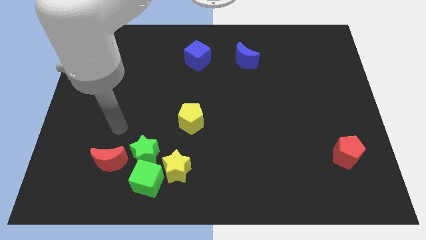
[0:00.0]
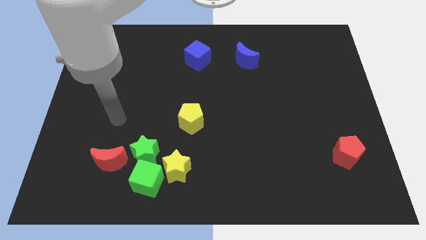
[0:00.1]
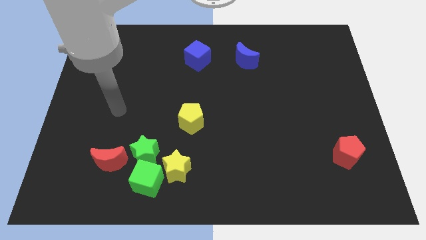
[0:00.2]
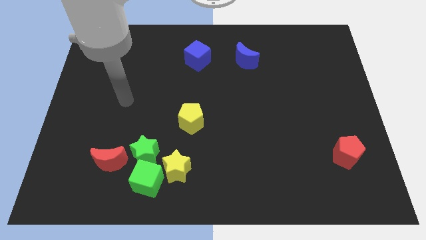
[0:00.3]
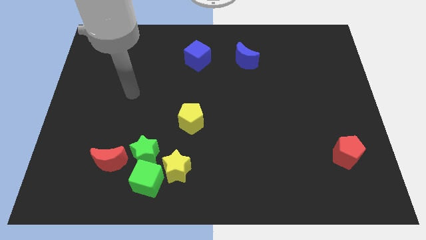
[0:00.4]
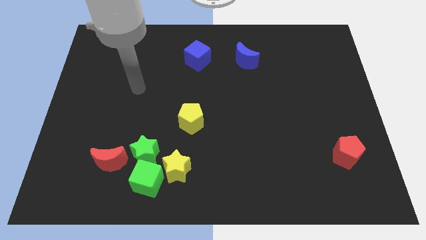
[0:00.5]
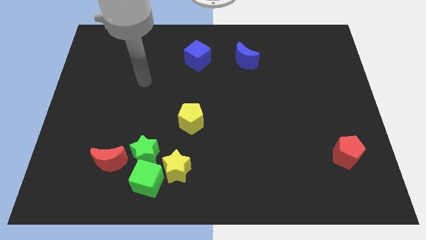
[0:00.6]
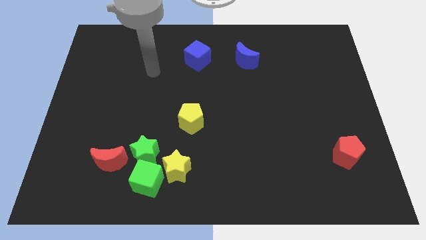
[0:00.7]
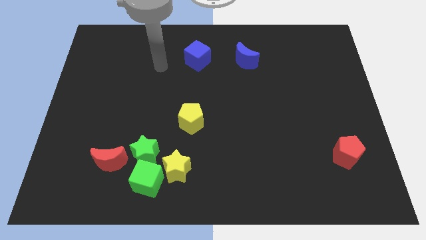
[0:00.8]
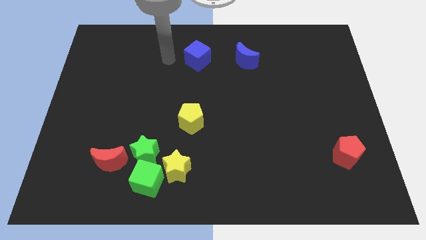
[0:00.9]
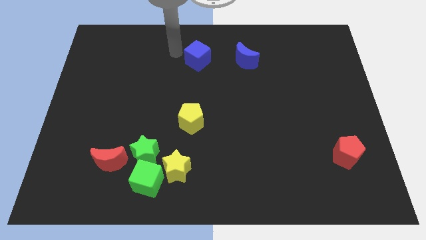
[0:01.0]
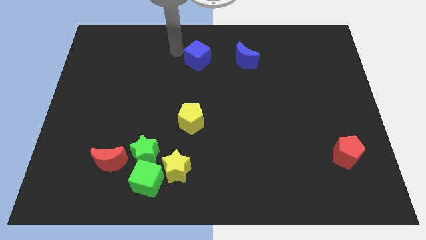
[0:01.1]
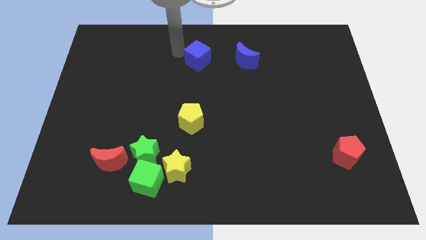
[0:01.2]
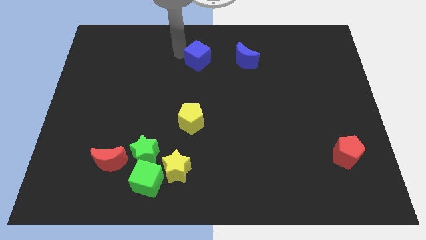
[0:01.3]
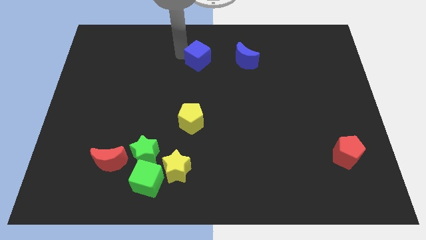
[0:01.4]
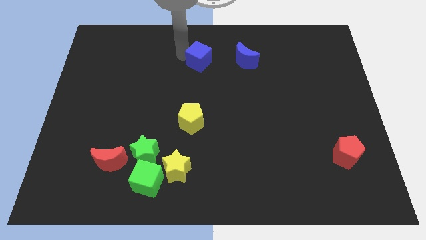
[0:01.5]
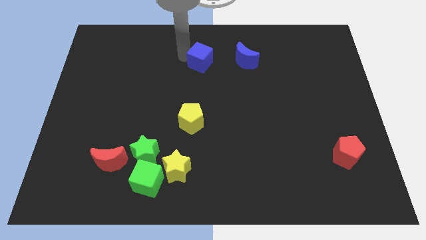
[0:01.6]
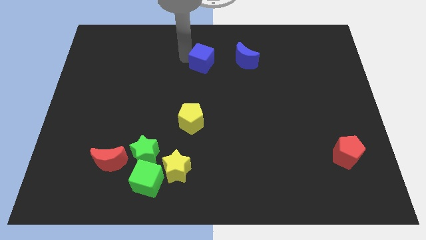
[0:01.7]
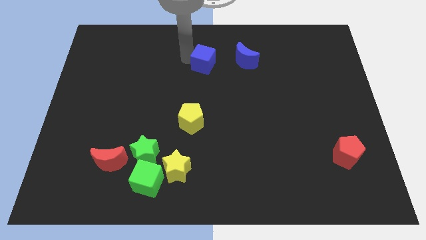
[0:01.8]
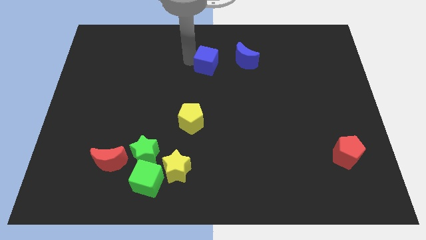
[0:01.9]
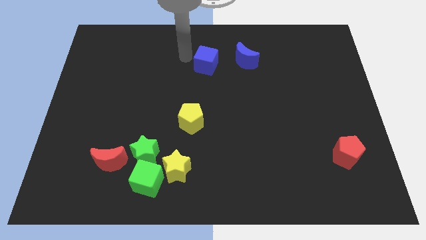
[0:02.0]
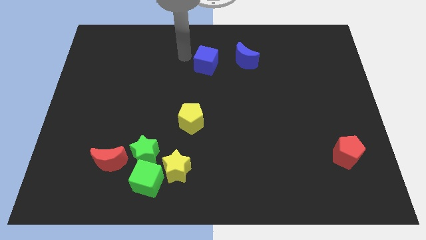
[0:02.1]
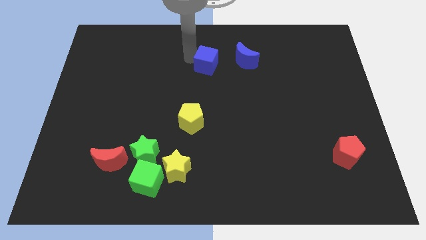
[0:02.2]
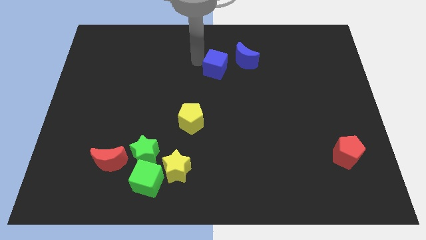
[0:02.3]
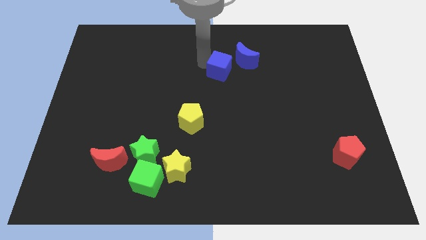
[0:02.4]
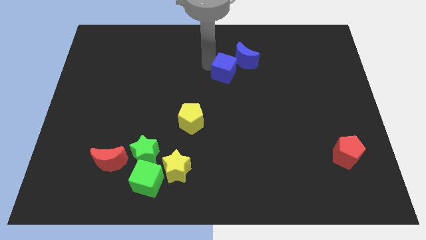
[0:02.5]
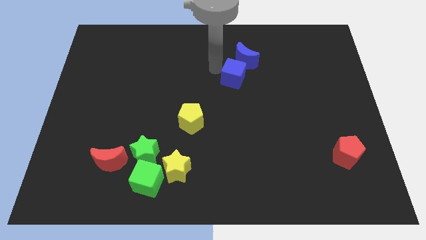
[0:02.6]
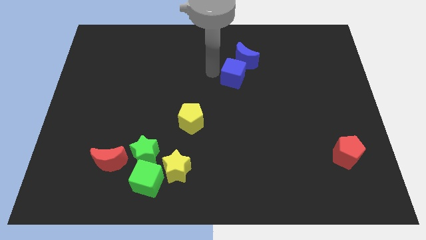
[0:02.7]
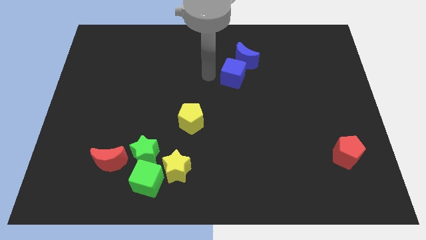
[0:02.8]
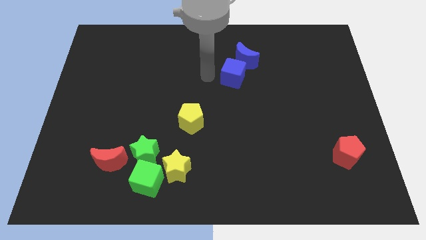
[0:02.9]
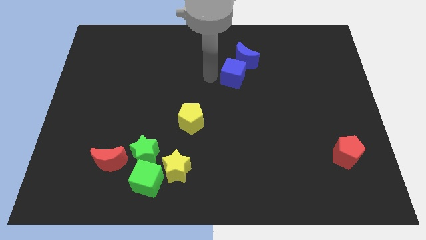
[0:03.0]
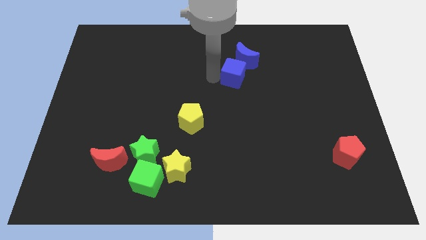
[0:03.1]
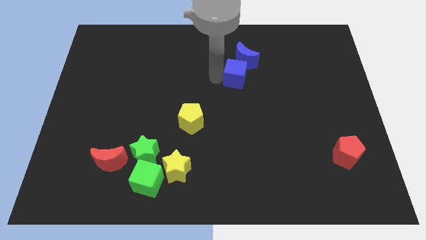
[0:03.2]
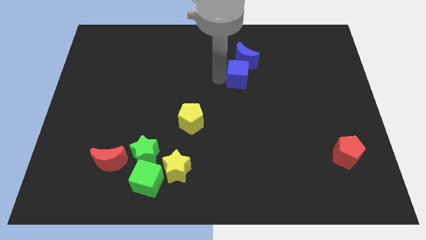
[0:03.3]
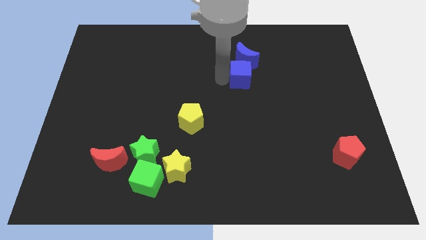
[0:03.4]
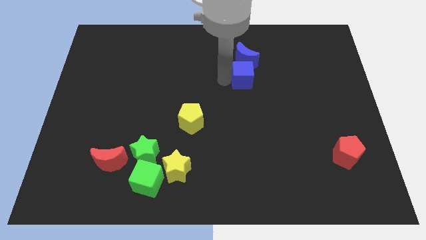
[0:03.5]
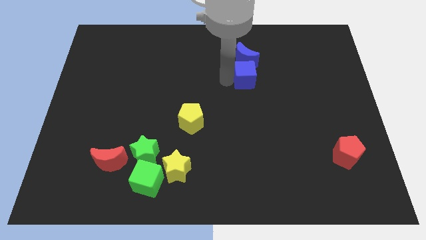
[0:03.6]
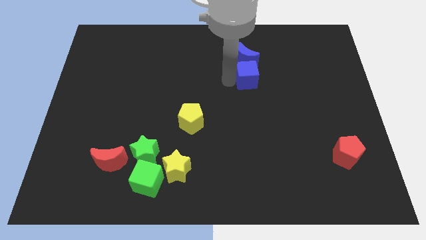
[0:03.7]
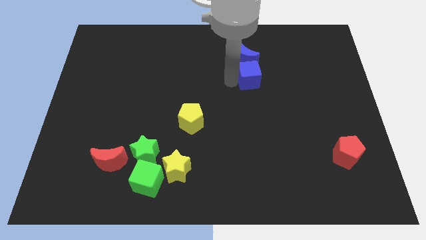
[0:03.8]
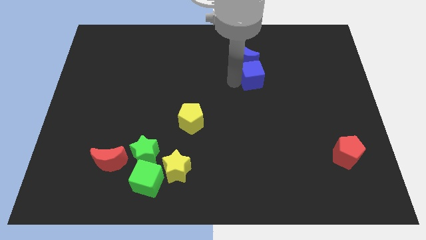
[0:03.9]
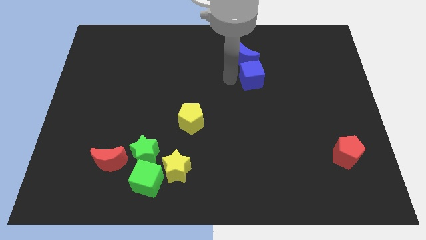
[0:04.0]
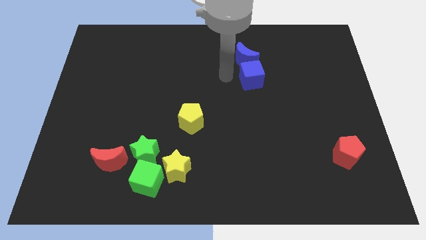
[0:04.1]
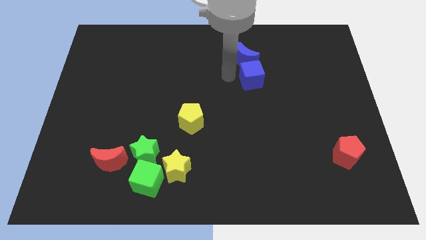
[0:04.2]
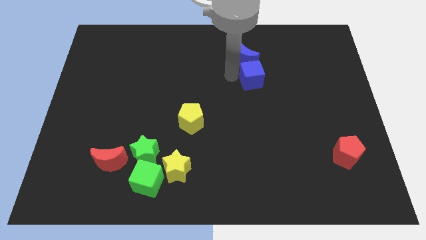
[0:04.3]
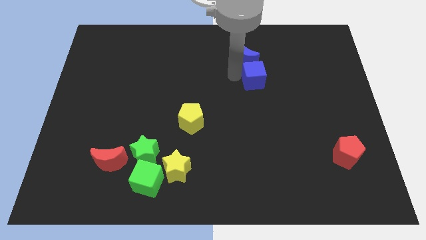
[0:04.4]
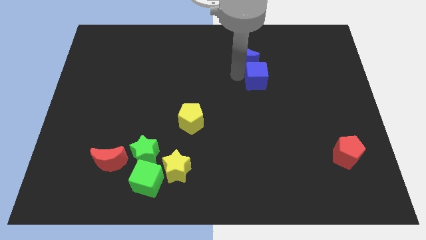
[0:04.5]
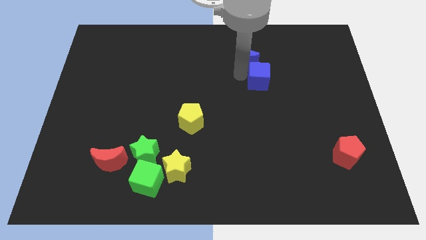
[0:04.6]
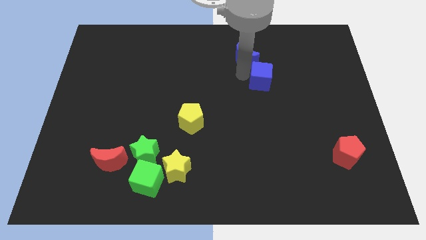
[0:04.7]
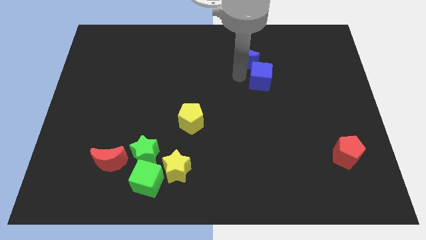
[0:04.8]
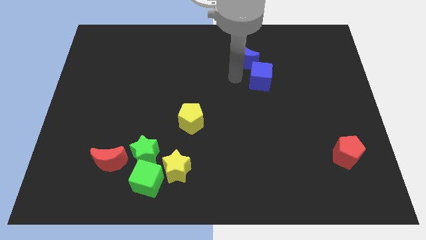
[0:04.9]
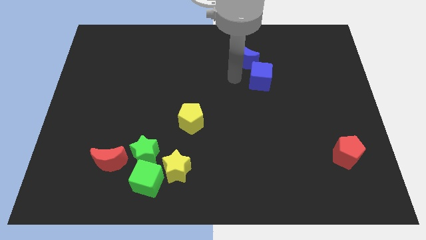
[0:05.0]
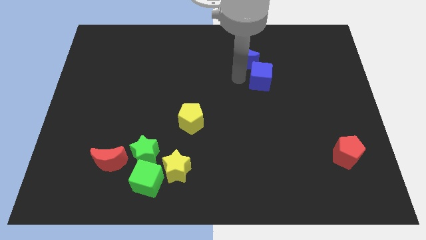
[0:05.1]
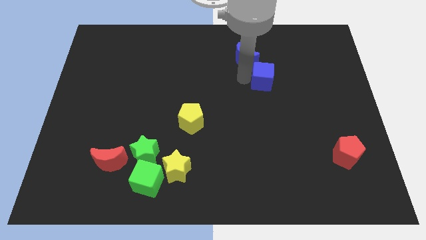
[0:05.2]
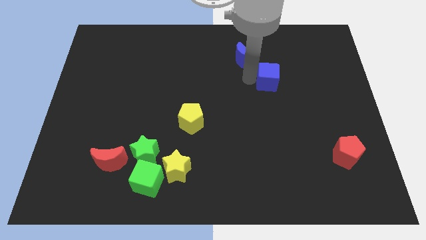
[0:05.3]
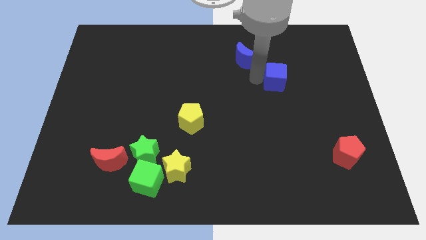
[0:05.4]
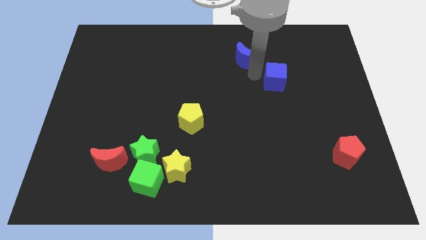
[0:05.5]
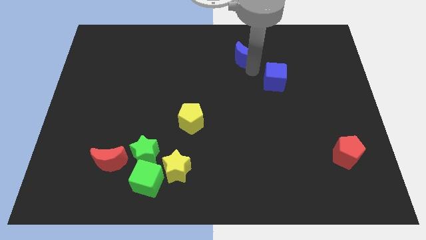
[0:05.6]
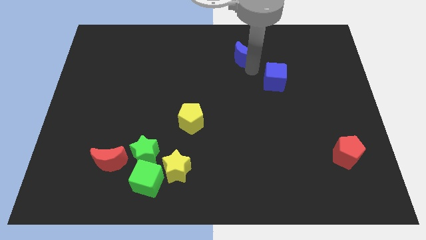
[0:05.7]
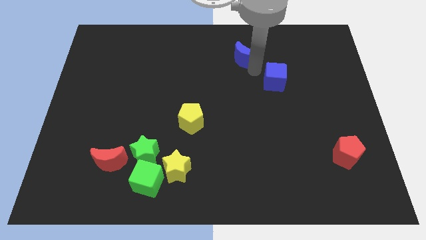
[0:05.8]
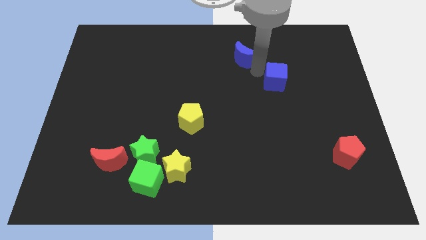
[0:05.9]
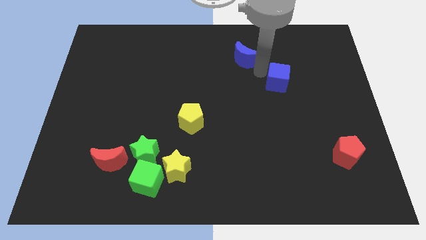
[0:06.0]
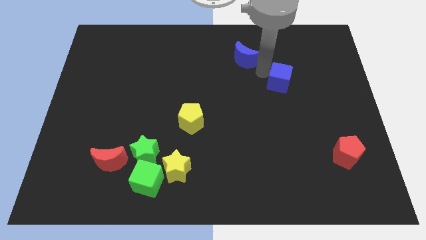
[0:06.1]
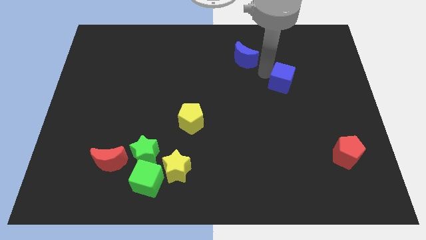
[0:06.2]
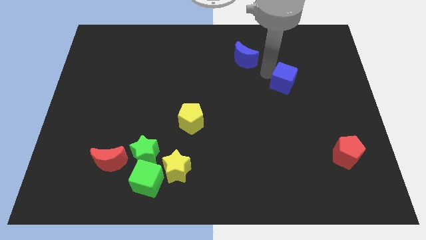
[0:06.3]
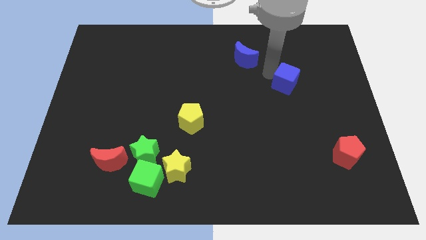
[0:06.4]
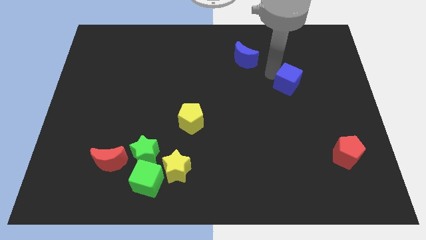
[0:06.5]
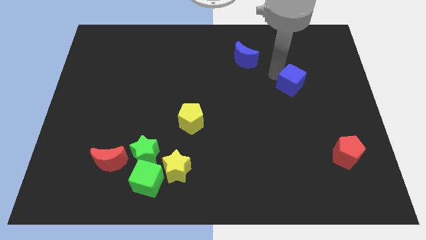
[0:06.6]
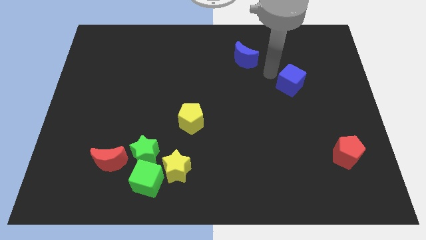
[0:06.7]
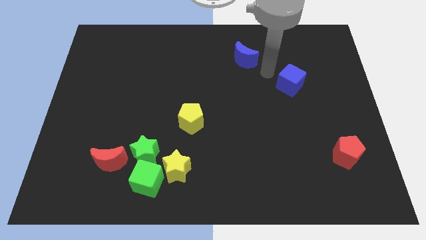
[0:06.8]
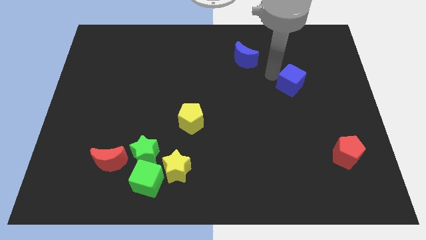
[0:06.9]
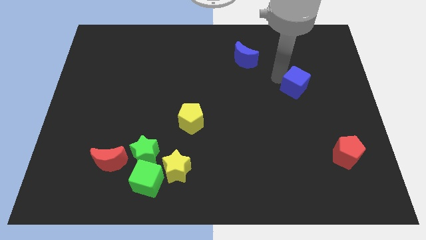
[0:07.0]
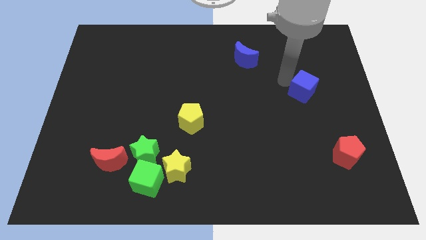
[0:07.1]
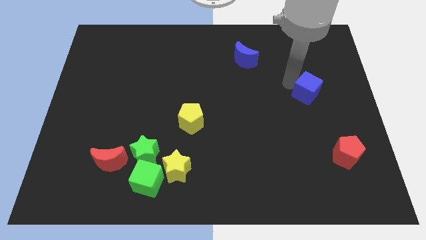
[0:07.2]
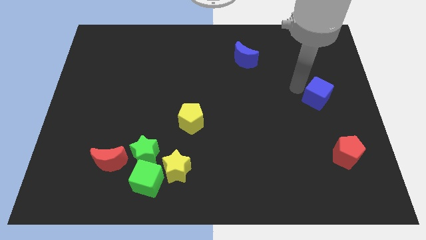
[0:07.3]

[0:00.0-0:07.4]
push the blue cube to the right side of the board
